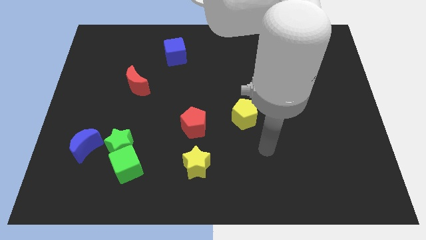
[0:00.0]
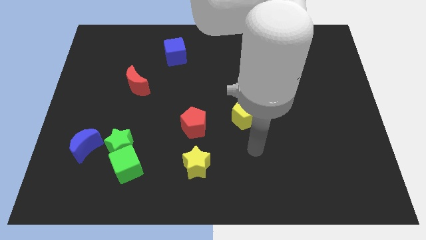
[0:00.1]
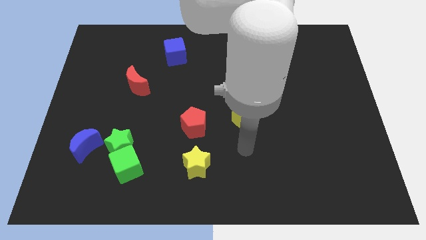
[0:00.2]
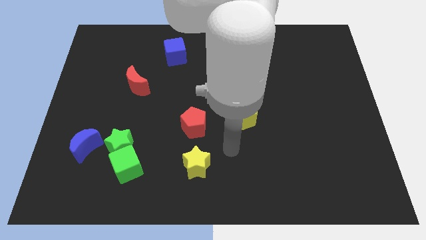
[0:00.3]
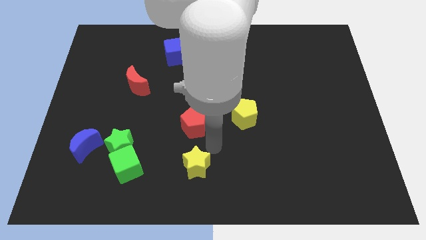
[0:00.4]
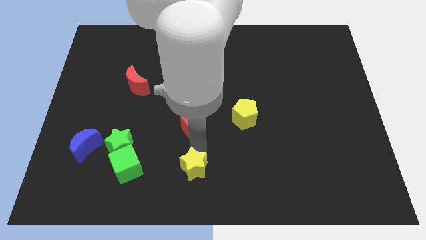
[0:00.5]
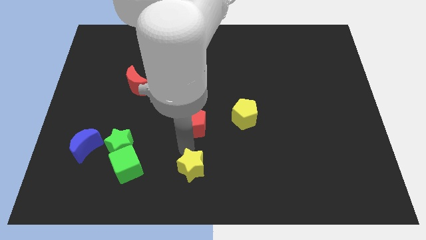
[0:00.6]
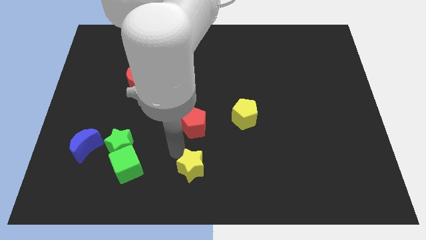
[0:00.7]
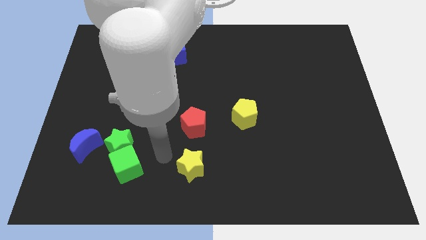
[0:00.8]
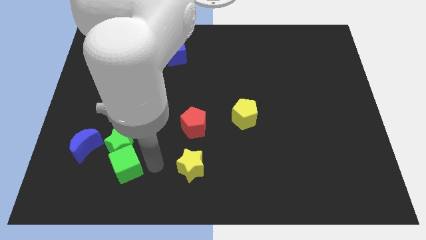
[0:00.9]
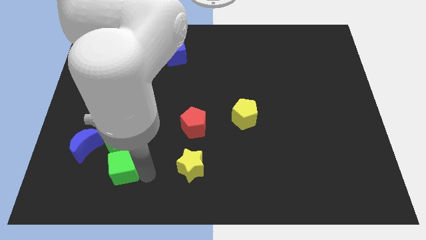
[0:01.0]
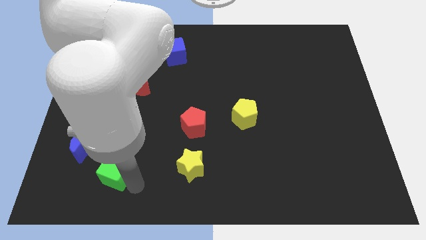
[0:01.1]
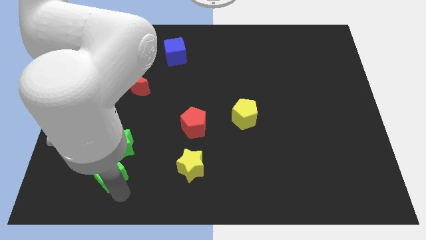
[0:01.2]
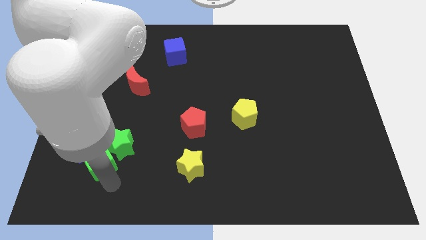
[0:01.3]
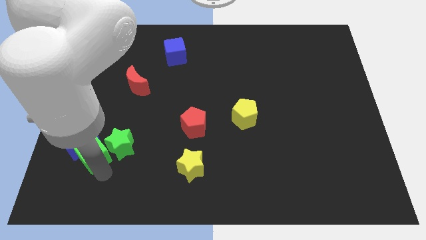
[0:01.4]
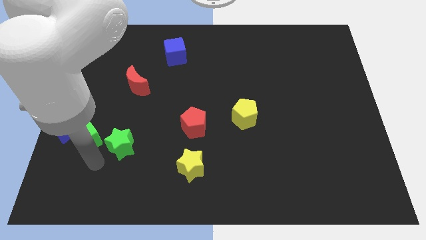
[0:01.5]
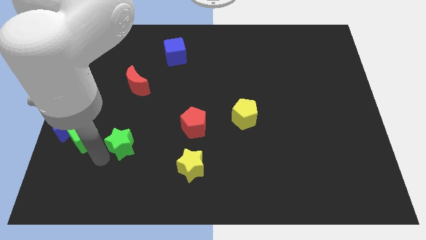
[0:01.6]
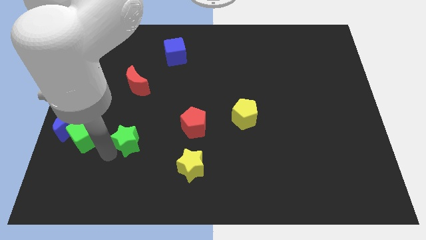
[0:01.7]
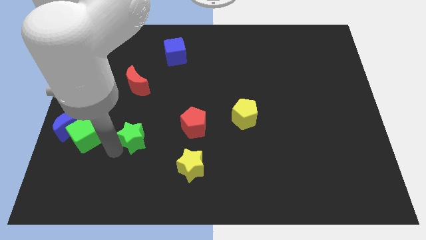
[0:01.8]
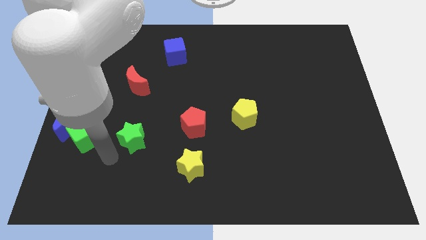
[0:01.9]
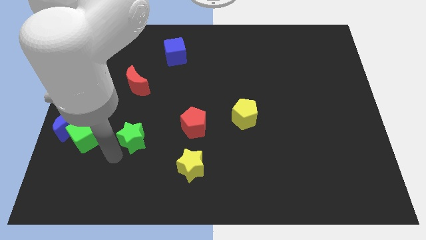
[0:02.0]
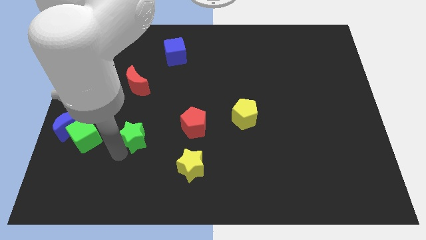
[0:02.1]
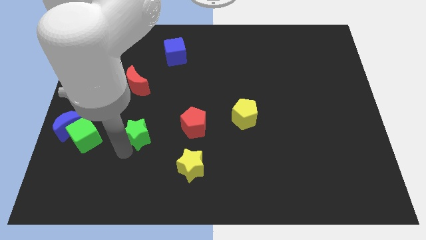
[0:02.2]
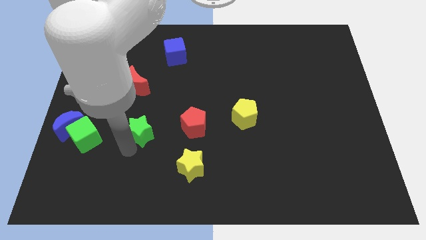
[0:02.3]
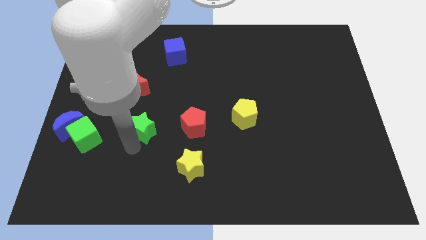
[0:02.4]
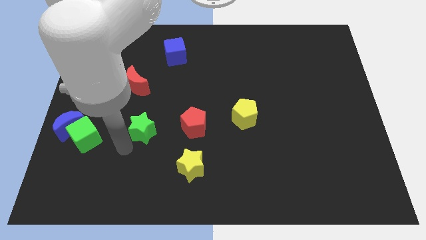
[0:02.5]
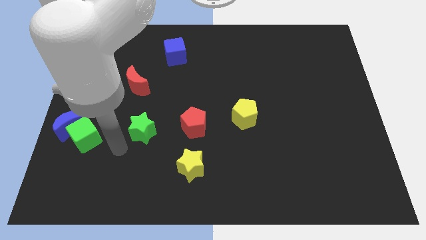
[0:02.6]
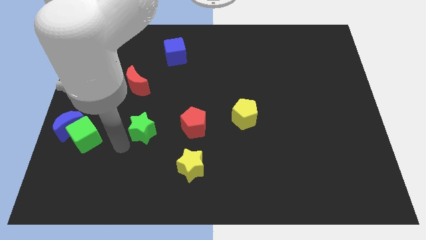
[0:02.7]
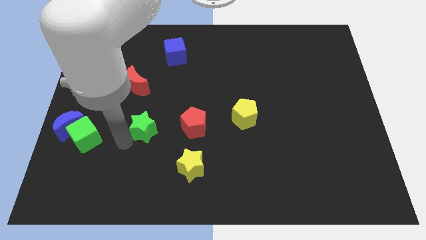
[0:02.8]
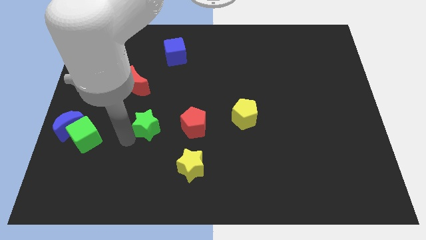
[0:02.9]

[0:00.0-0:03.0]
slide the green star slightly upwards and to the right diagonally

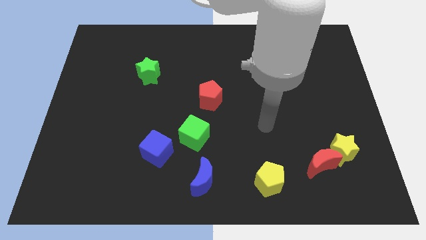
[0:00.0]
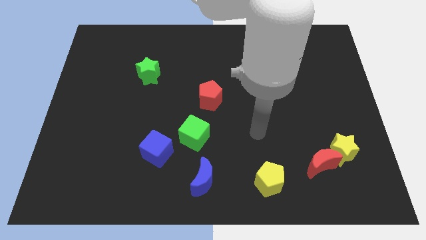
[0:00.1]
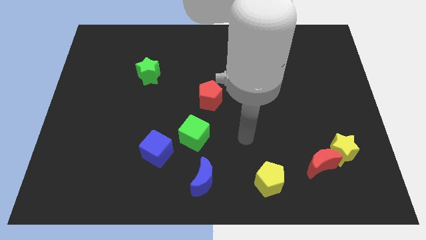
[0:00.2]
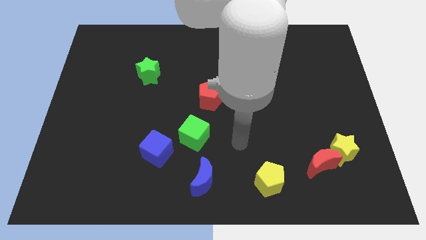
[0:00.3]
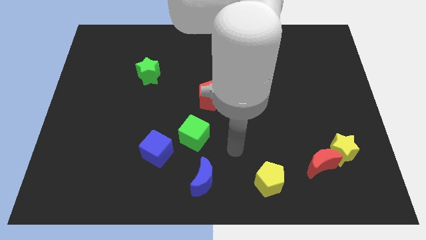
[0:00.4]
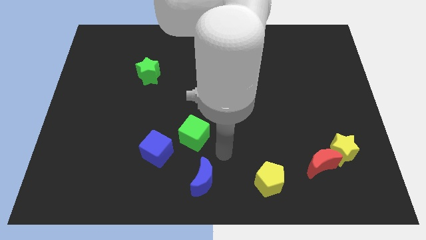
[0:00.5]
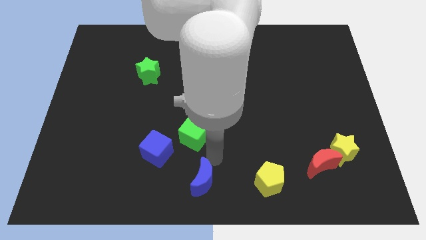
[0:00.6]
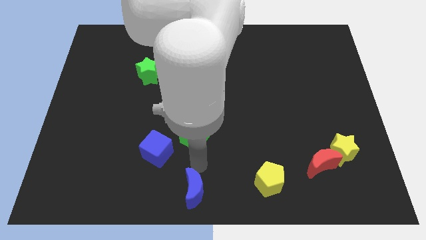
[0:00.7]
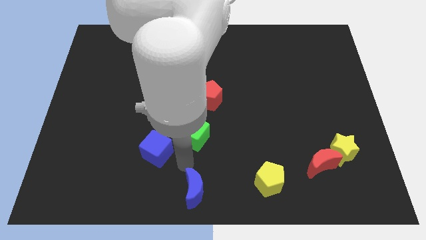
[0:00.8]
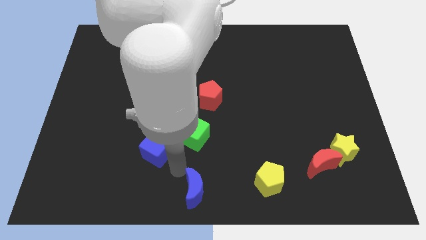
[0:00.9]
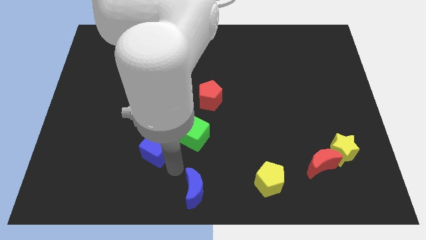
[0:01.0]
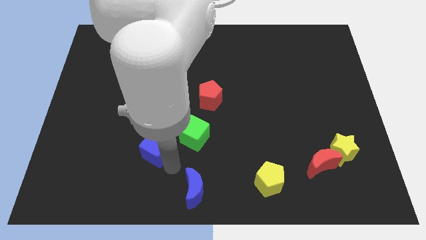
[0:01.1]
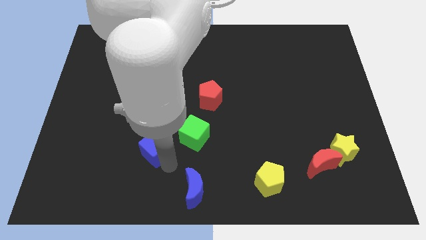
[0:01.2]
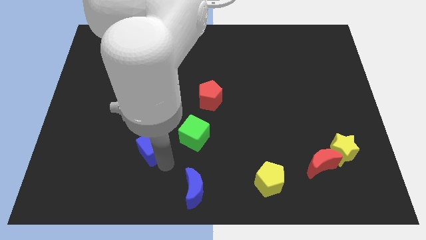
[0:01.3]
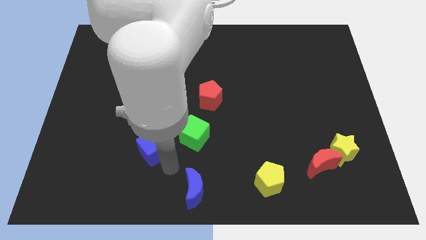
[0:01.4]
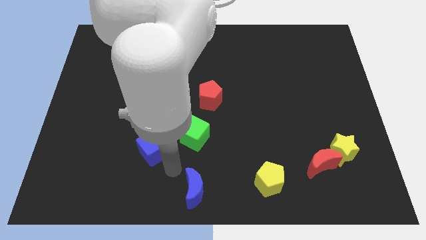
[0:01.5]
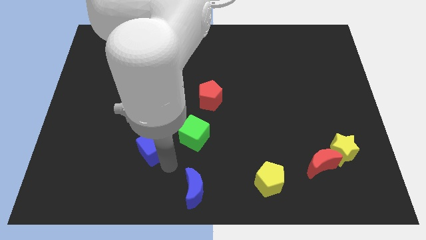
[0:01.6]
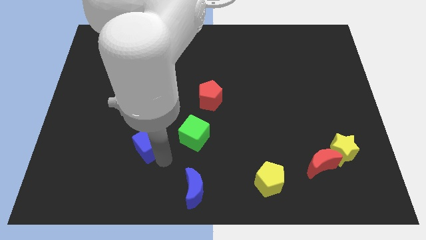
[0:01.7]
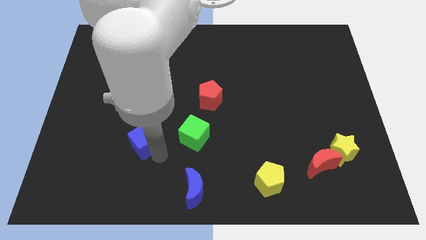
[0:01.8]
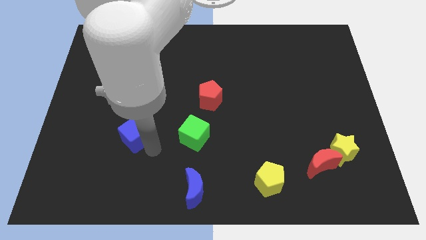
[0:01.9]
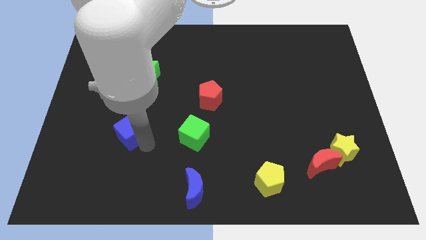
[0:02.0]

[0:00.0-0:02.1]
push the blue cube a little upwards and left

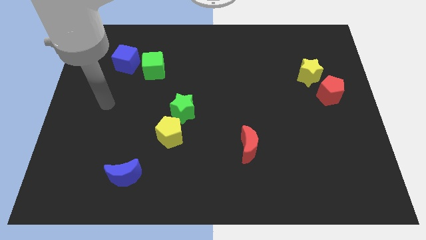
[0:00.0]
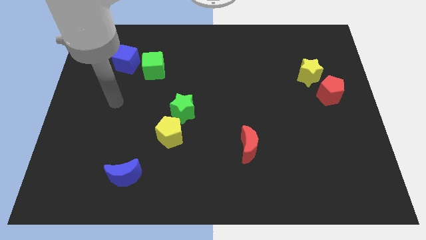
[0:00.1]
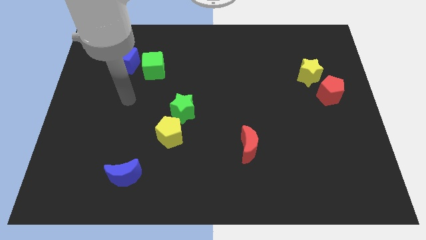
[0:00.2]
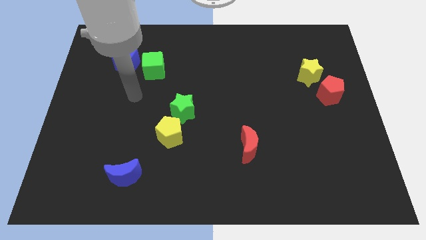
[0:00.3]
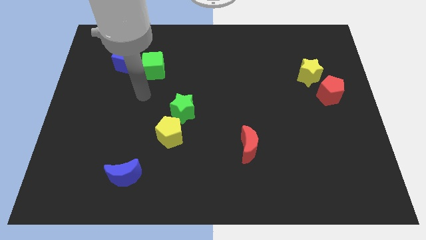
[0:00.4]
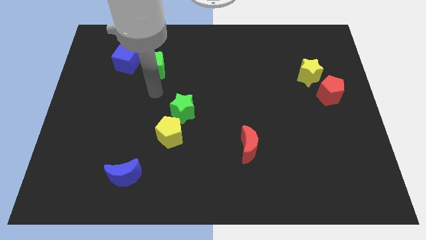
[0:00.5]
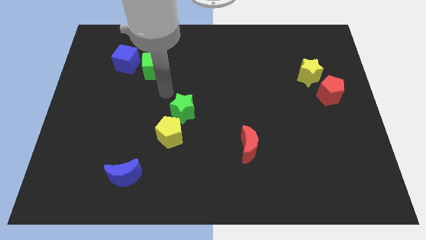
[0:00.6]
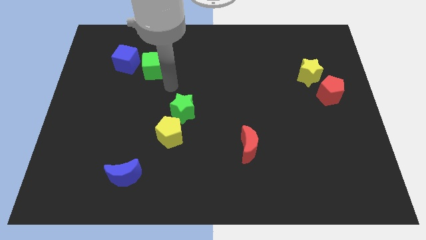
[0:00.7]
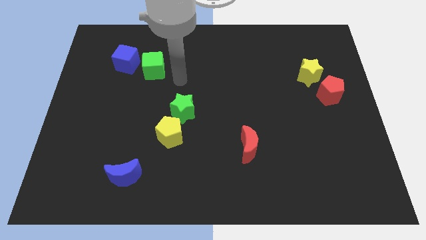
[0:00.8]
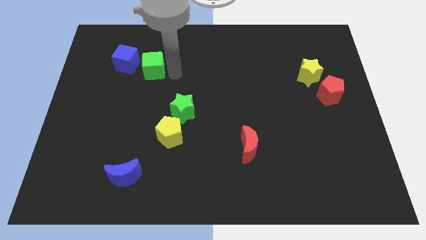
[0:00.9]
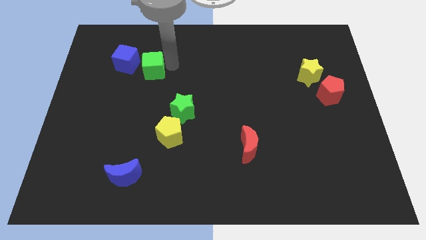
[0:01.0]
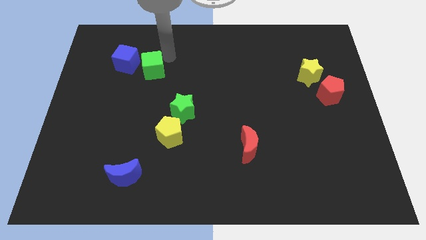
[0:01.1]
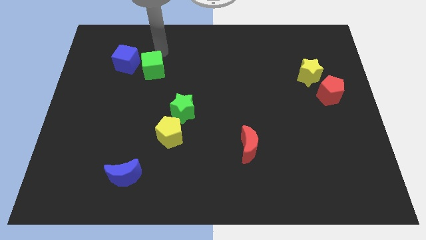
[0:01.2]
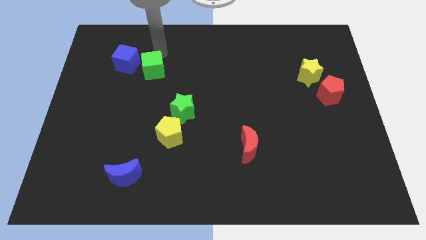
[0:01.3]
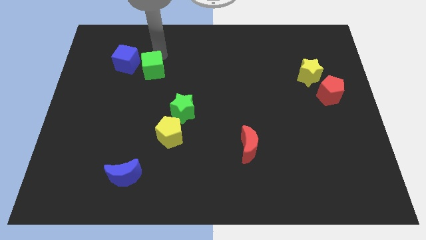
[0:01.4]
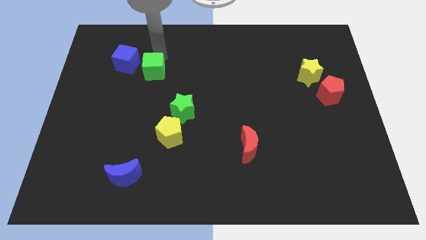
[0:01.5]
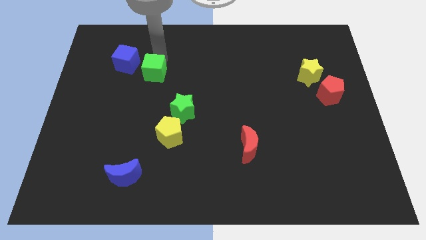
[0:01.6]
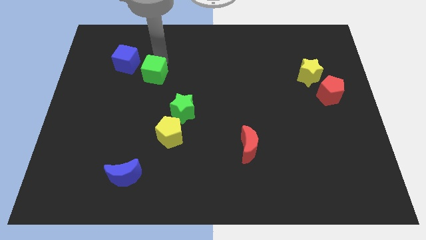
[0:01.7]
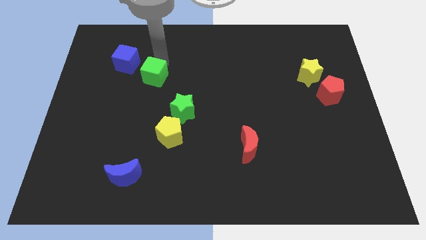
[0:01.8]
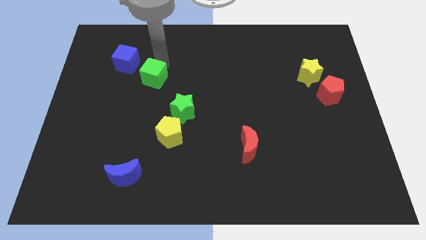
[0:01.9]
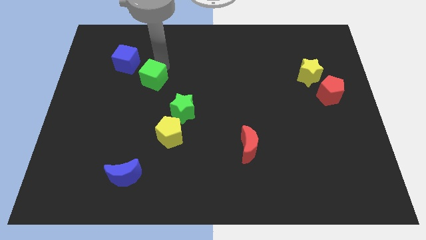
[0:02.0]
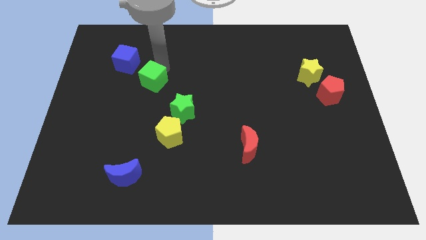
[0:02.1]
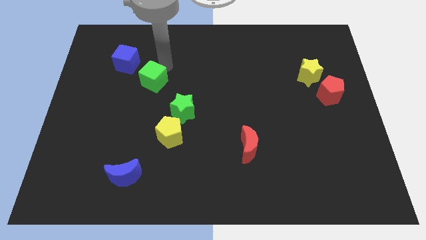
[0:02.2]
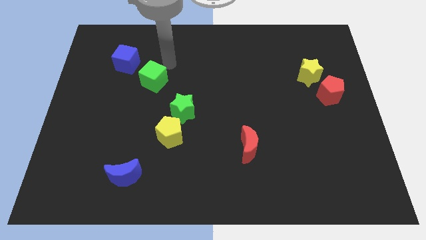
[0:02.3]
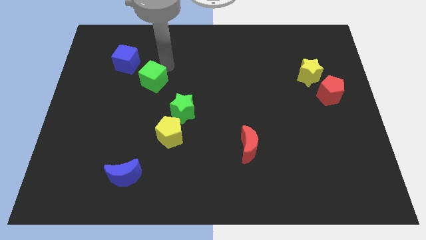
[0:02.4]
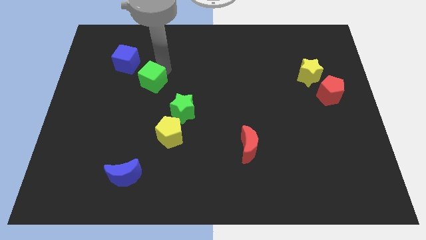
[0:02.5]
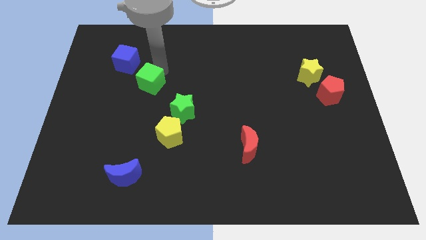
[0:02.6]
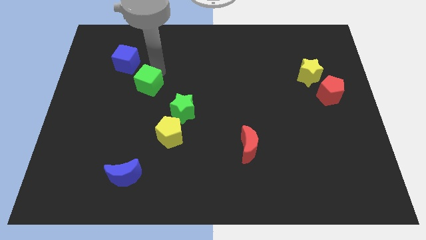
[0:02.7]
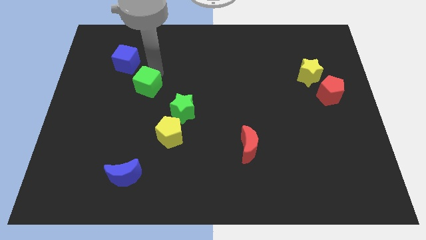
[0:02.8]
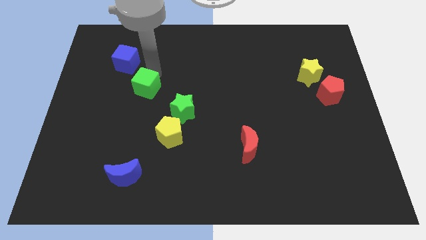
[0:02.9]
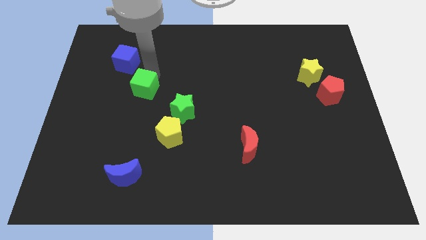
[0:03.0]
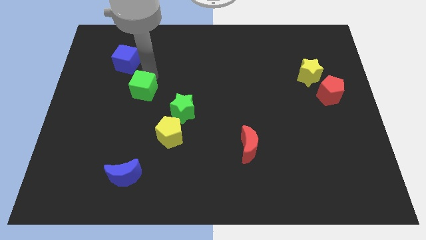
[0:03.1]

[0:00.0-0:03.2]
push the green cube a little bit downwards
